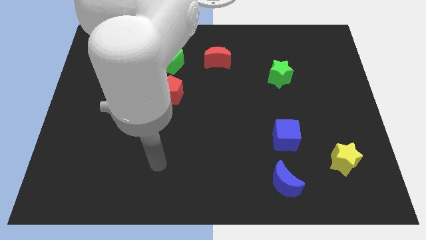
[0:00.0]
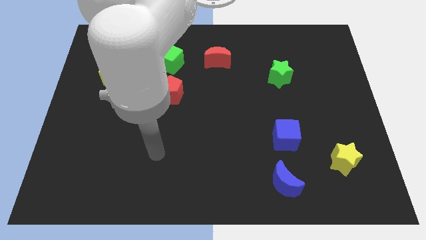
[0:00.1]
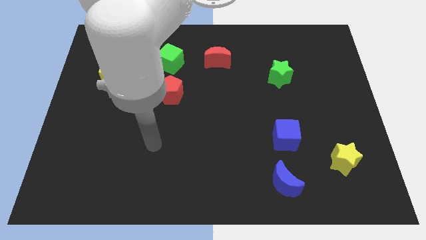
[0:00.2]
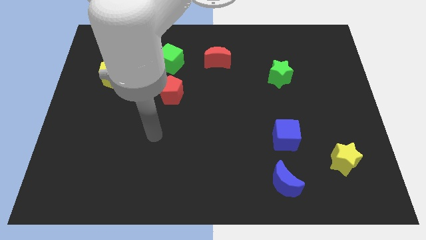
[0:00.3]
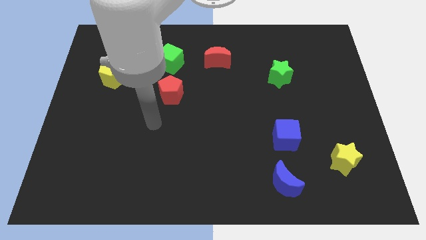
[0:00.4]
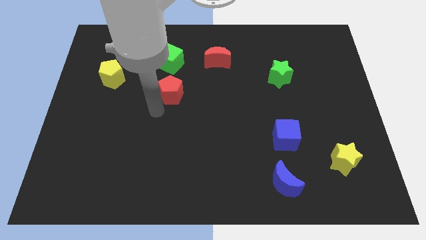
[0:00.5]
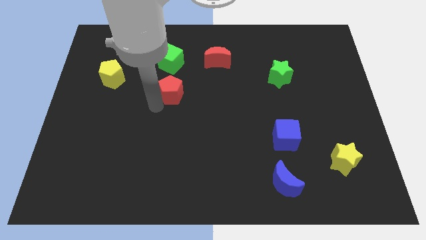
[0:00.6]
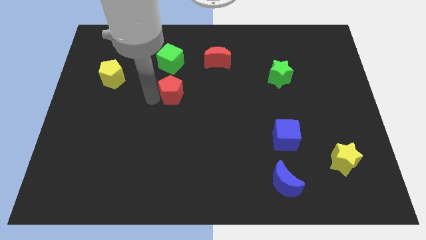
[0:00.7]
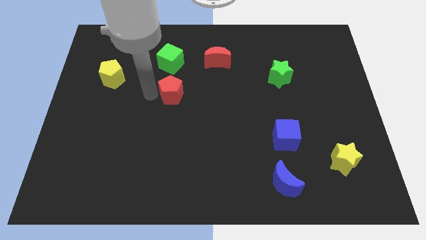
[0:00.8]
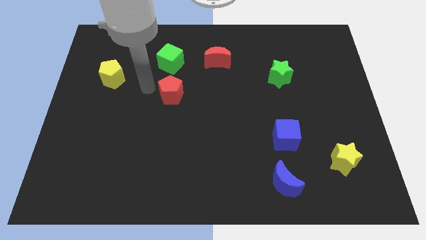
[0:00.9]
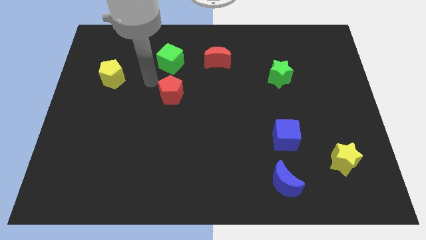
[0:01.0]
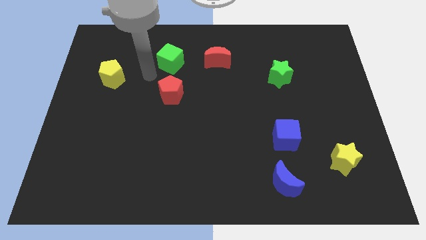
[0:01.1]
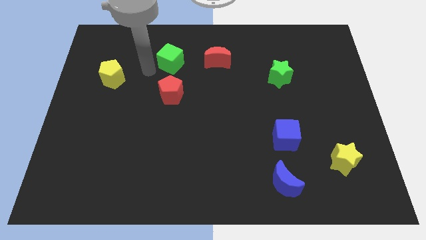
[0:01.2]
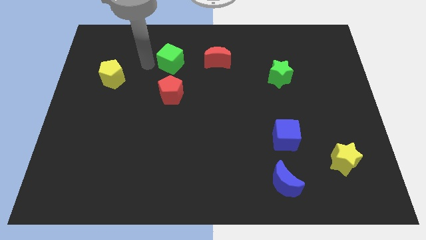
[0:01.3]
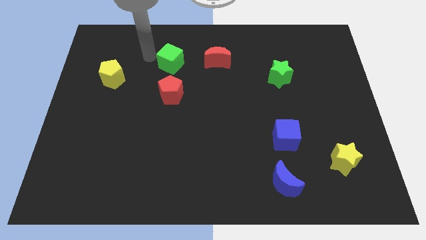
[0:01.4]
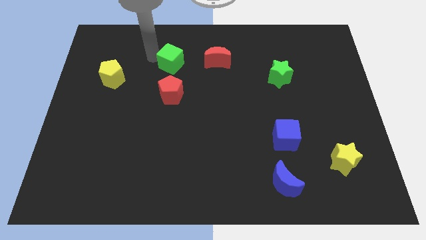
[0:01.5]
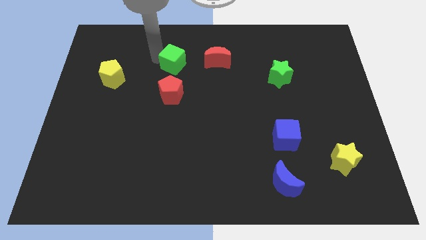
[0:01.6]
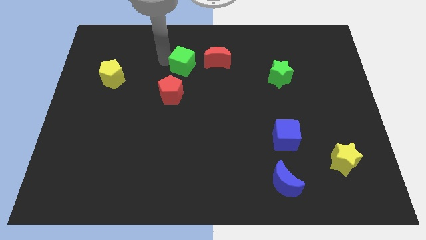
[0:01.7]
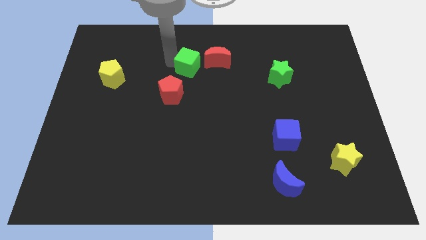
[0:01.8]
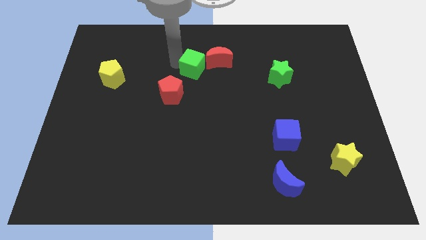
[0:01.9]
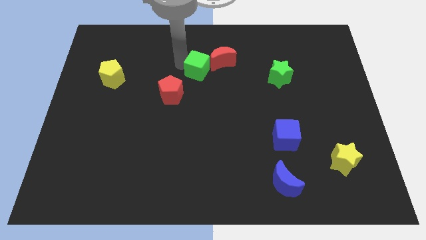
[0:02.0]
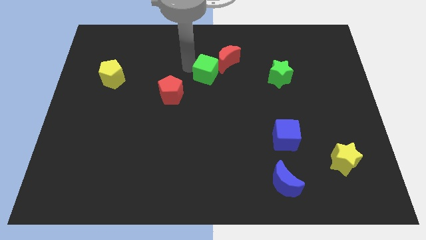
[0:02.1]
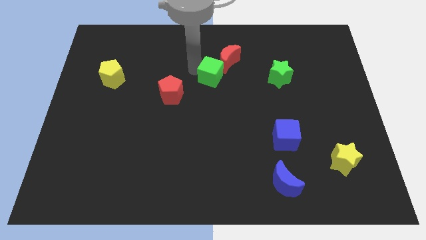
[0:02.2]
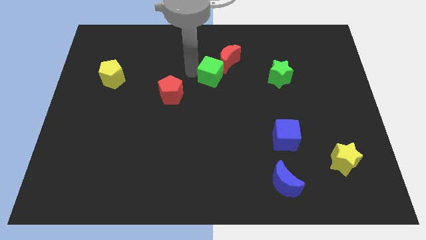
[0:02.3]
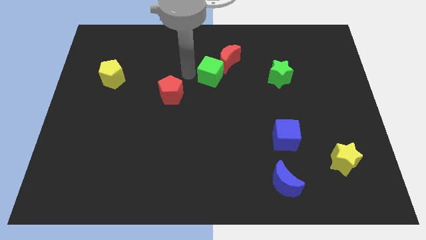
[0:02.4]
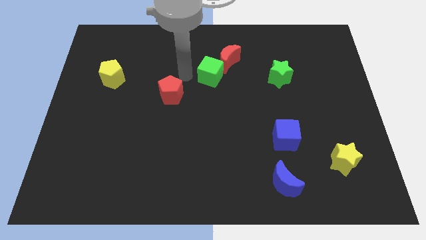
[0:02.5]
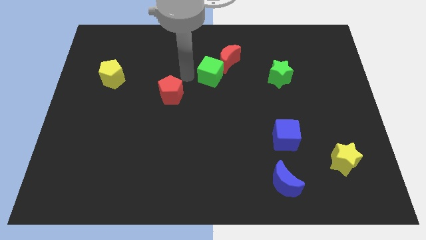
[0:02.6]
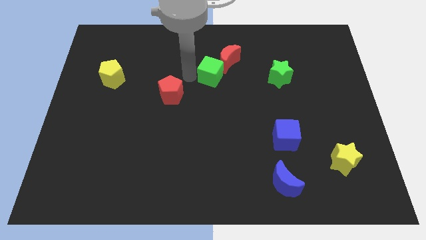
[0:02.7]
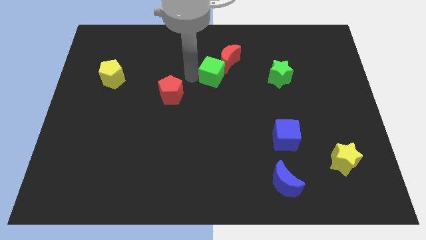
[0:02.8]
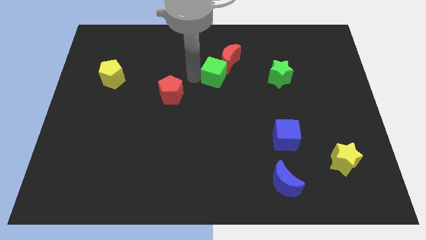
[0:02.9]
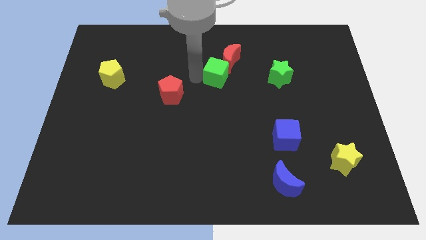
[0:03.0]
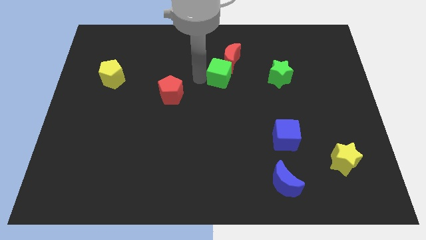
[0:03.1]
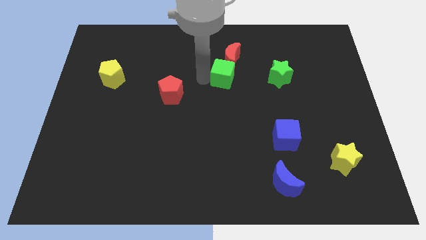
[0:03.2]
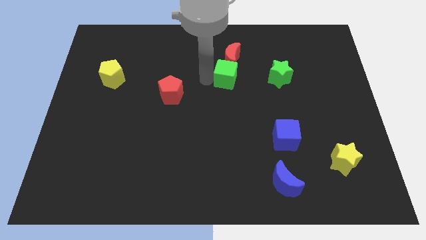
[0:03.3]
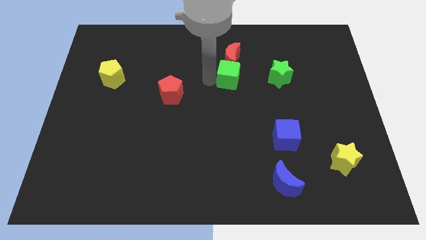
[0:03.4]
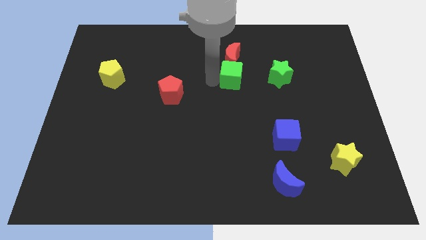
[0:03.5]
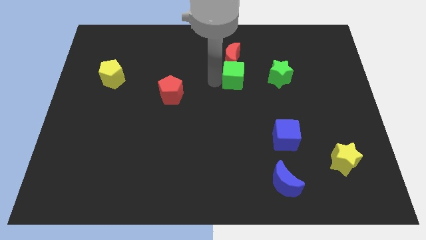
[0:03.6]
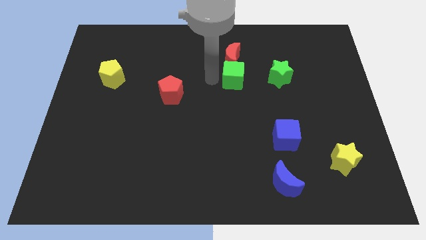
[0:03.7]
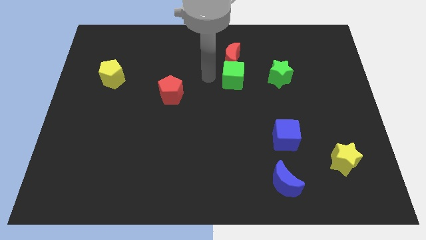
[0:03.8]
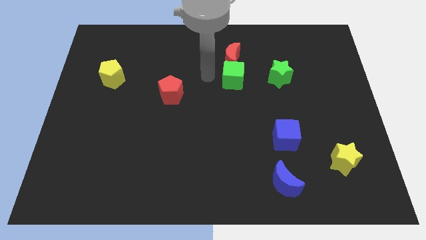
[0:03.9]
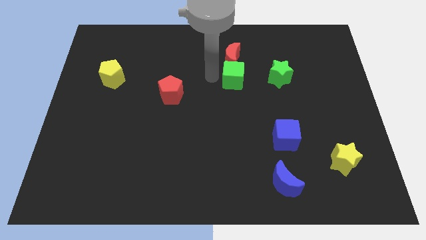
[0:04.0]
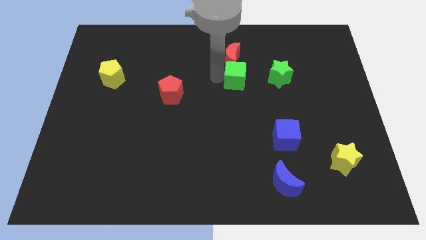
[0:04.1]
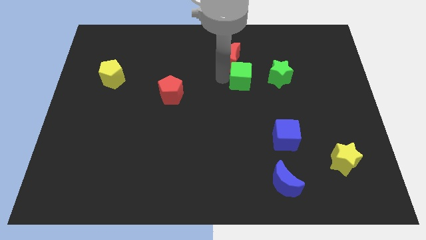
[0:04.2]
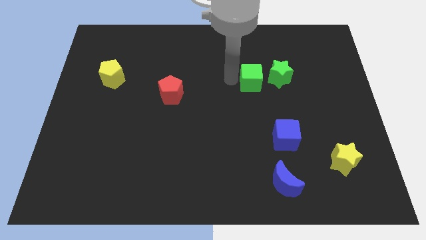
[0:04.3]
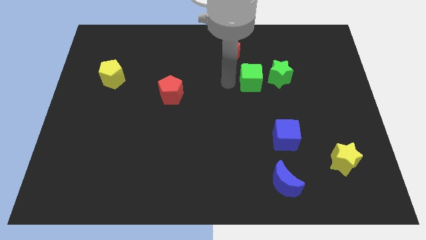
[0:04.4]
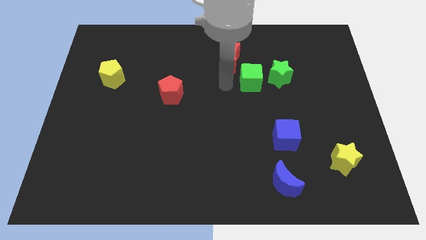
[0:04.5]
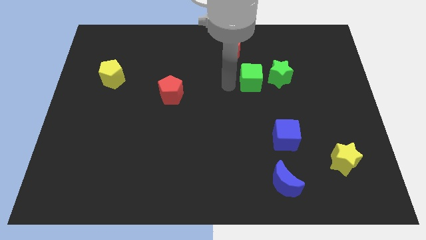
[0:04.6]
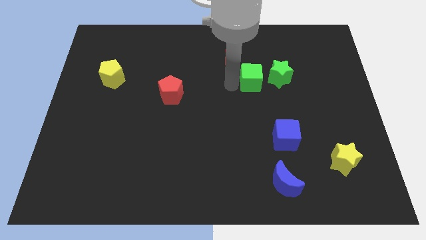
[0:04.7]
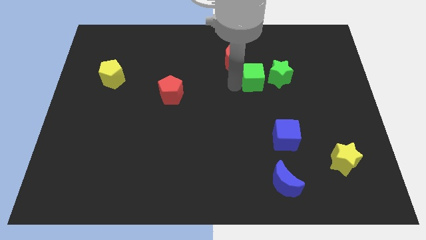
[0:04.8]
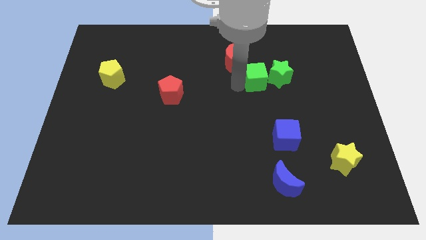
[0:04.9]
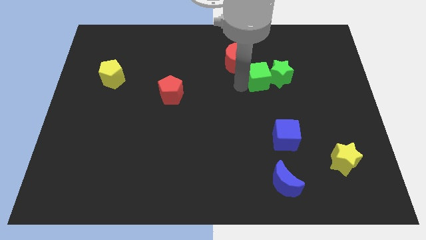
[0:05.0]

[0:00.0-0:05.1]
slide the green cube next to the green star

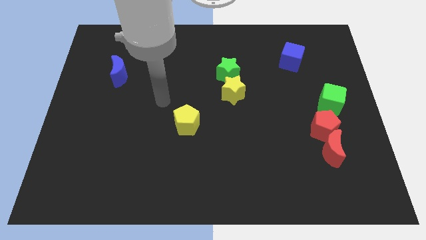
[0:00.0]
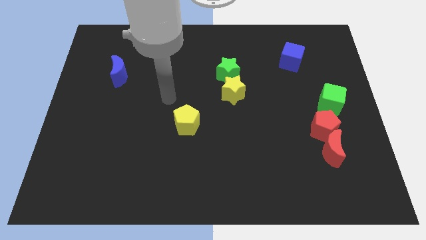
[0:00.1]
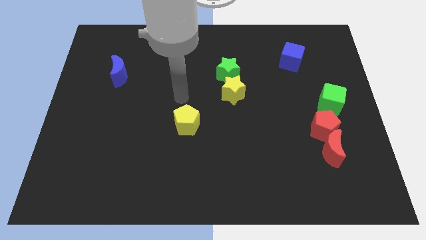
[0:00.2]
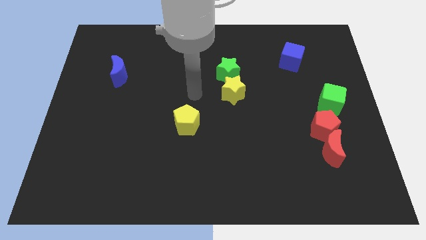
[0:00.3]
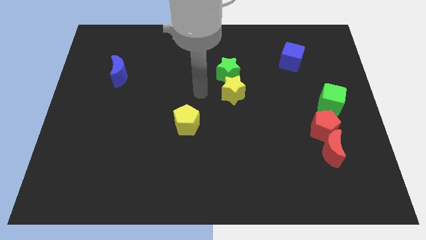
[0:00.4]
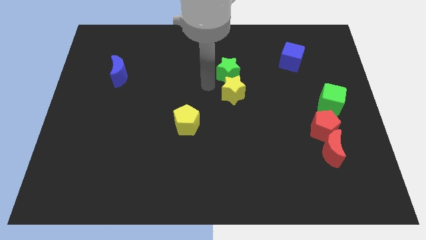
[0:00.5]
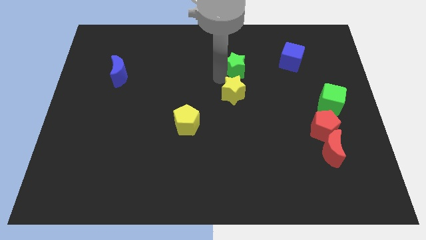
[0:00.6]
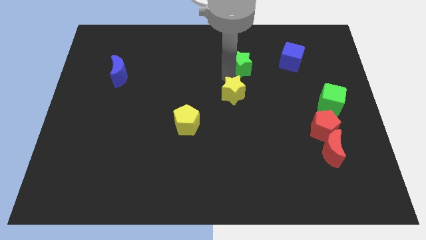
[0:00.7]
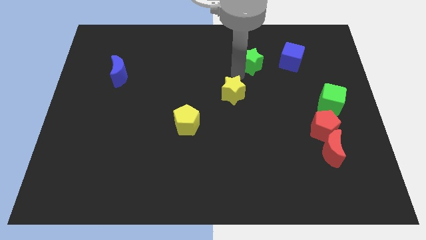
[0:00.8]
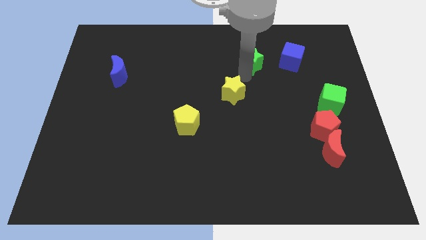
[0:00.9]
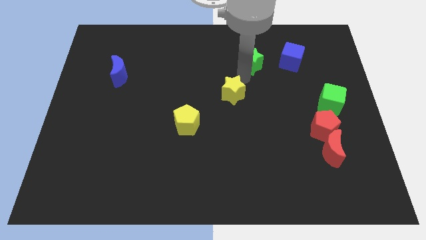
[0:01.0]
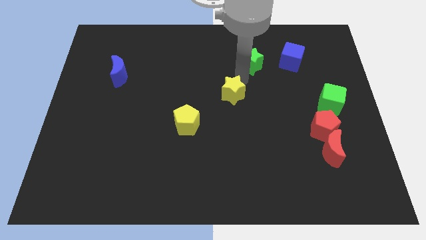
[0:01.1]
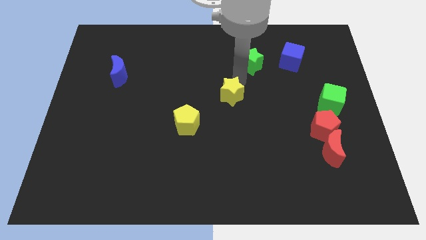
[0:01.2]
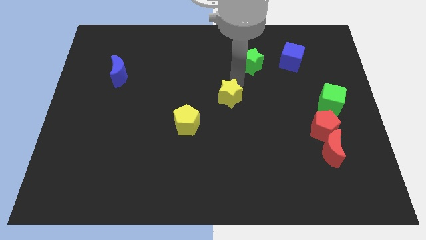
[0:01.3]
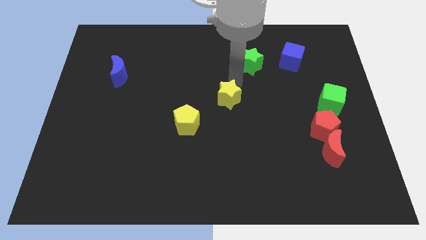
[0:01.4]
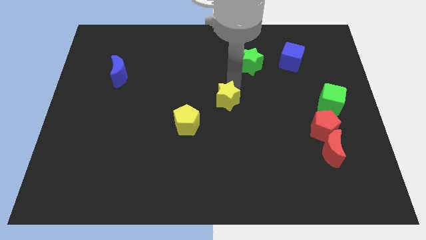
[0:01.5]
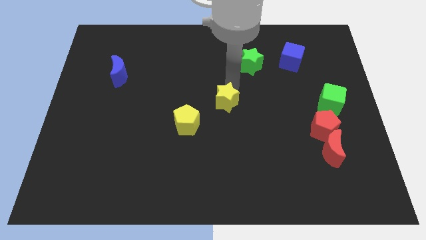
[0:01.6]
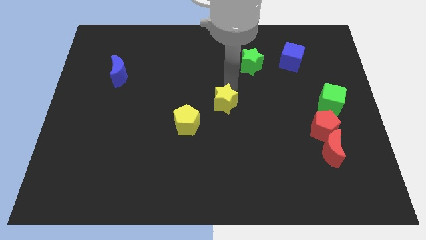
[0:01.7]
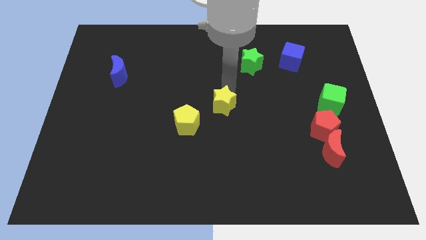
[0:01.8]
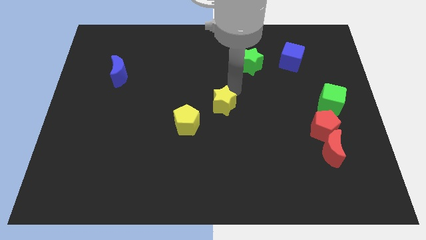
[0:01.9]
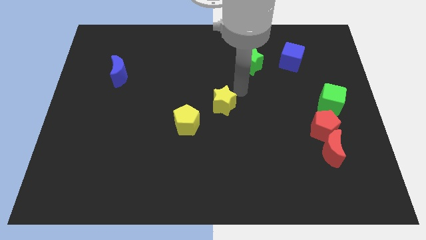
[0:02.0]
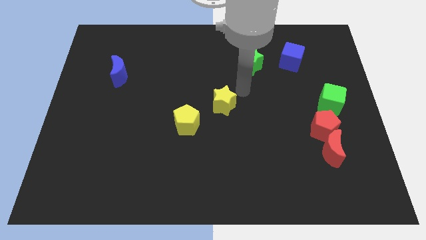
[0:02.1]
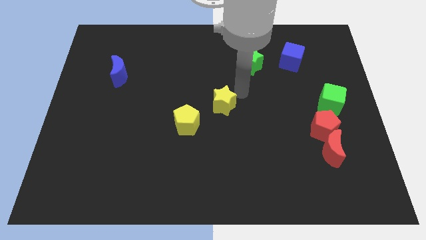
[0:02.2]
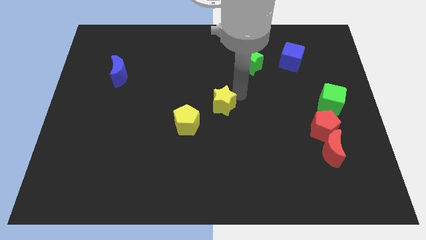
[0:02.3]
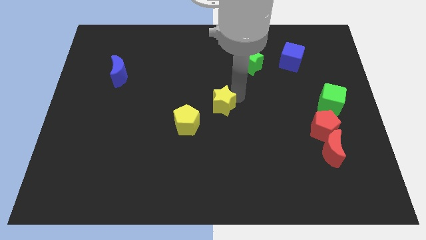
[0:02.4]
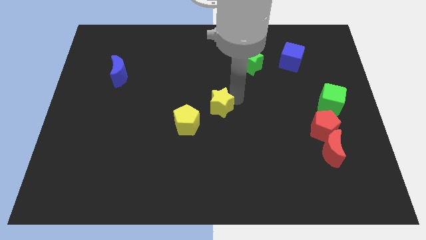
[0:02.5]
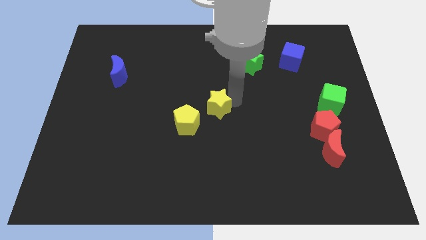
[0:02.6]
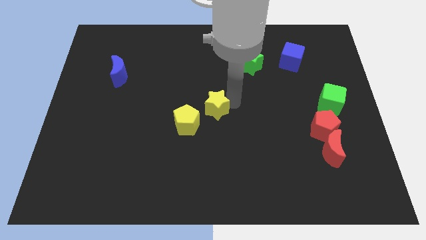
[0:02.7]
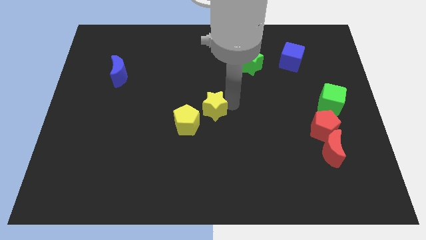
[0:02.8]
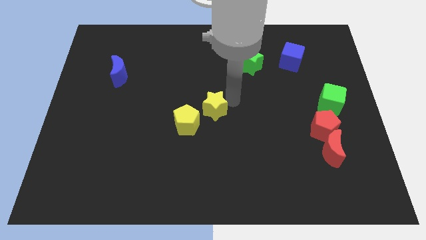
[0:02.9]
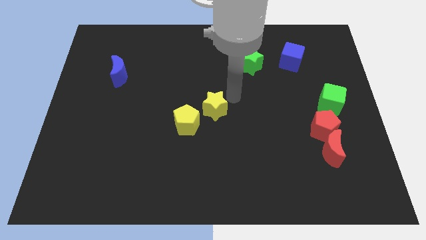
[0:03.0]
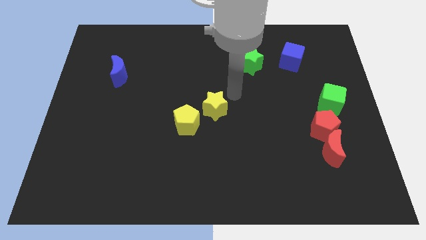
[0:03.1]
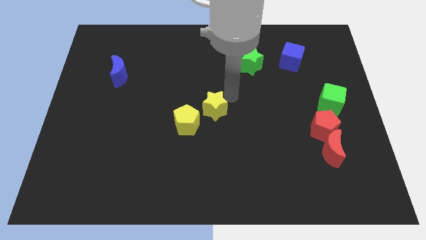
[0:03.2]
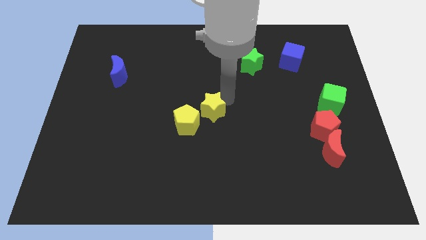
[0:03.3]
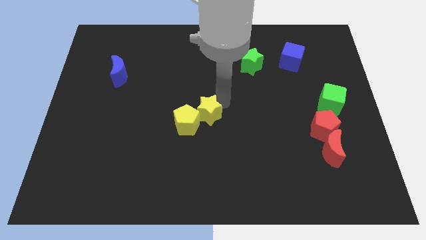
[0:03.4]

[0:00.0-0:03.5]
move the yellow star towards the yellow pentagon
